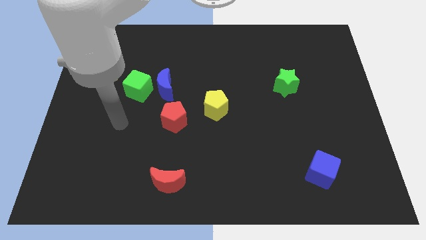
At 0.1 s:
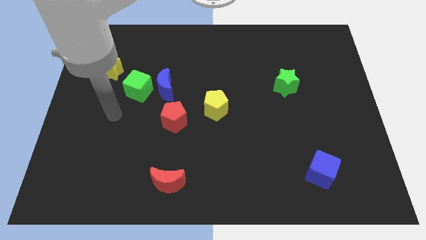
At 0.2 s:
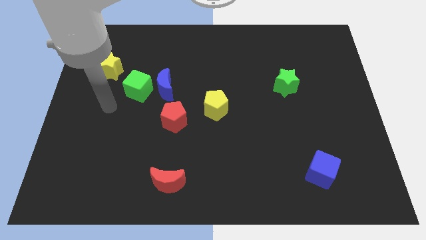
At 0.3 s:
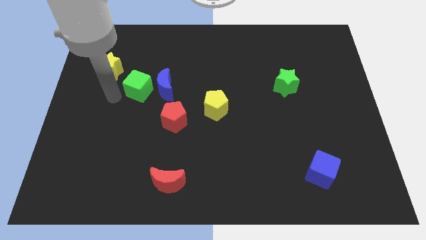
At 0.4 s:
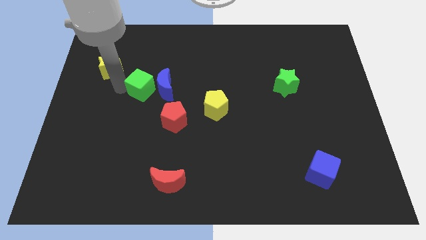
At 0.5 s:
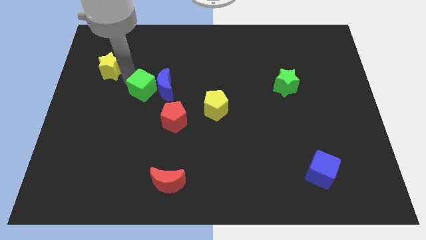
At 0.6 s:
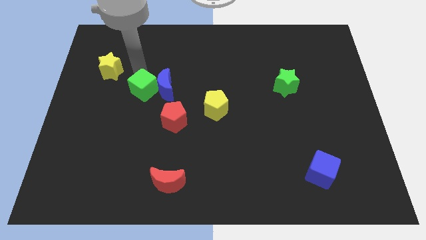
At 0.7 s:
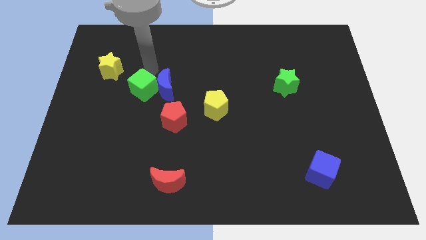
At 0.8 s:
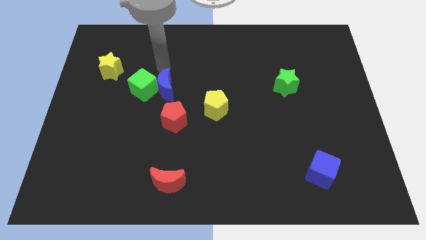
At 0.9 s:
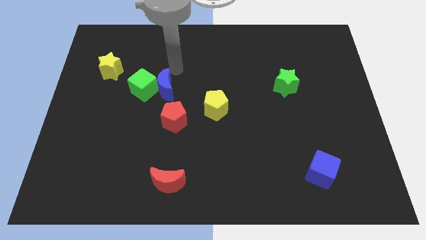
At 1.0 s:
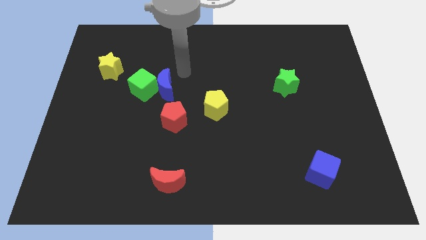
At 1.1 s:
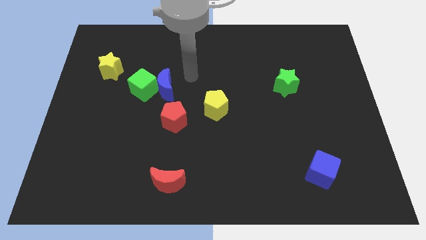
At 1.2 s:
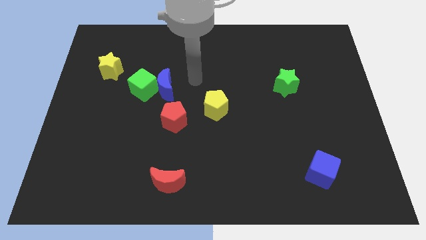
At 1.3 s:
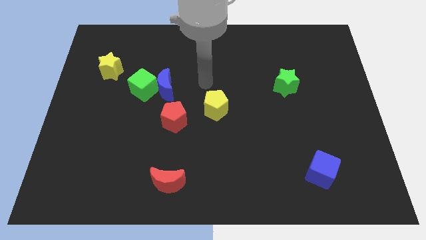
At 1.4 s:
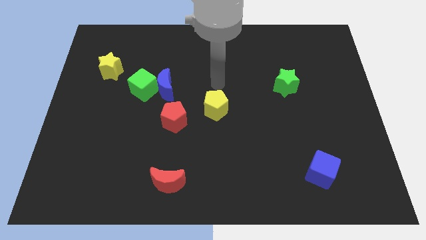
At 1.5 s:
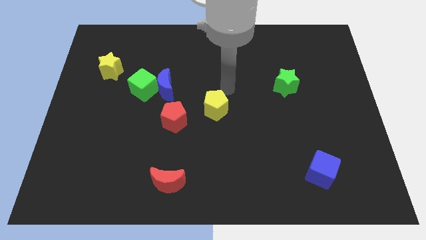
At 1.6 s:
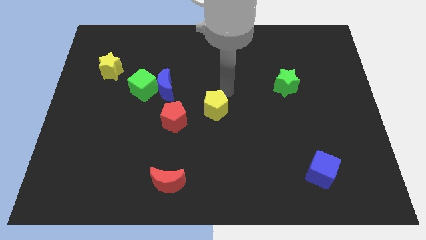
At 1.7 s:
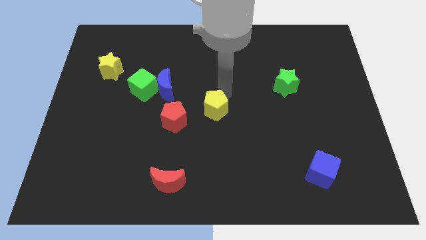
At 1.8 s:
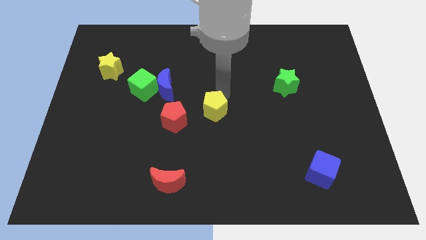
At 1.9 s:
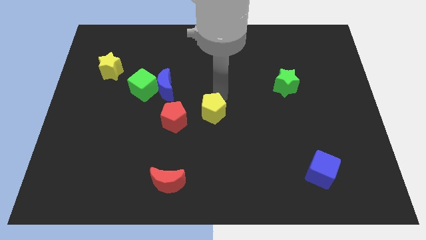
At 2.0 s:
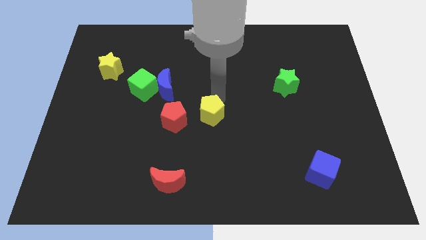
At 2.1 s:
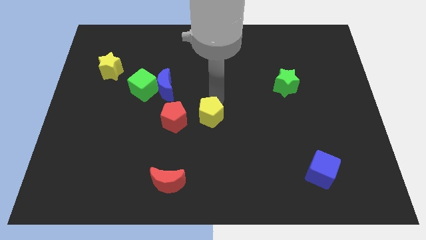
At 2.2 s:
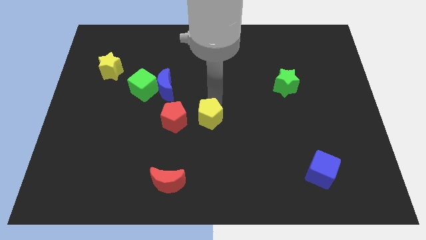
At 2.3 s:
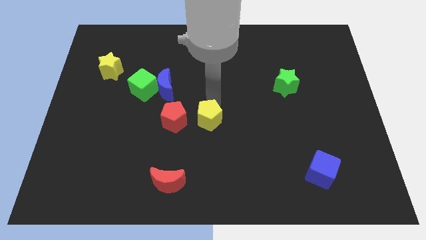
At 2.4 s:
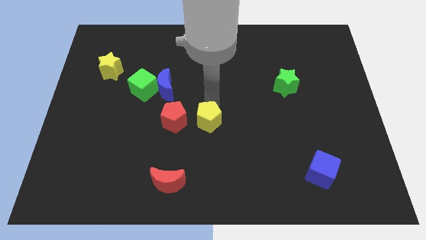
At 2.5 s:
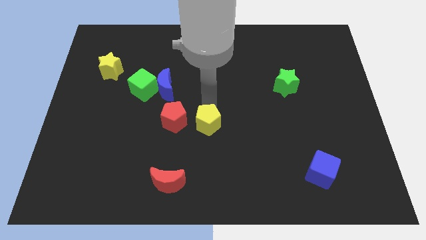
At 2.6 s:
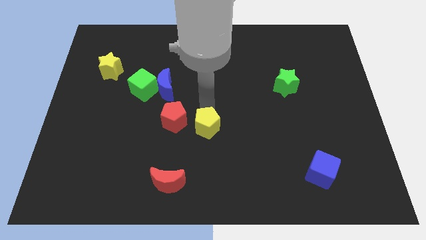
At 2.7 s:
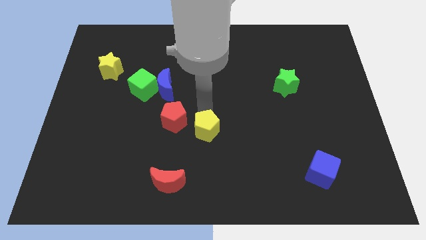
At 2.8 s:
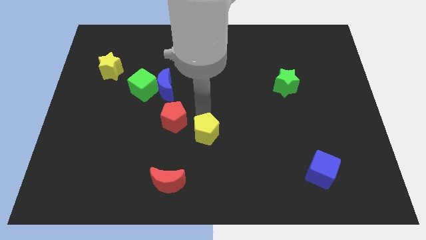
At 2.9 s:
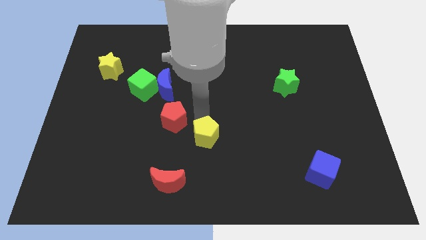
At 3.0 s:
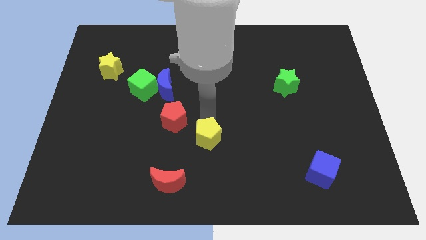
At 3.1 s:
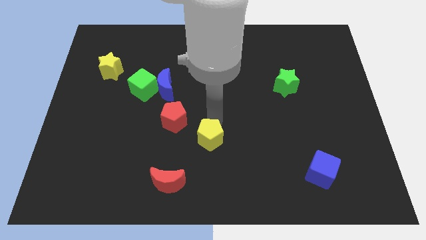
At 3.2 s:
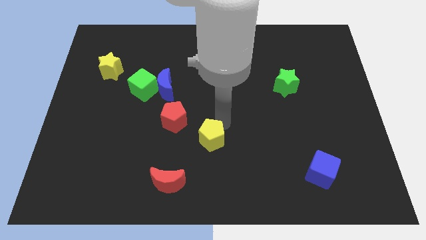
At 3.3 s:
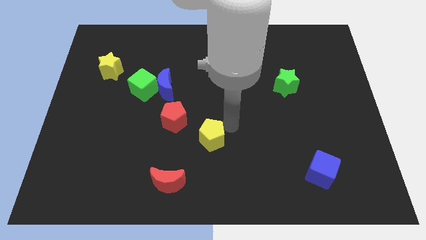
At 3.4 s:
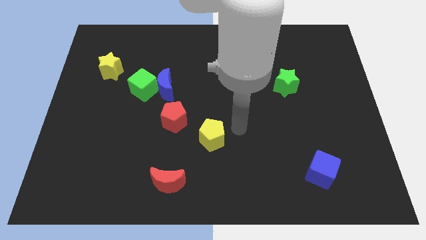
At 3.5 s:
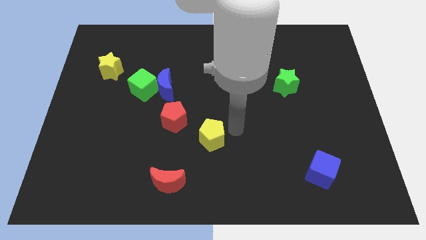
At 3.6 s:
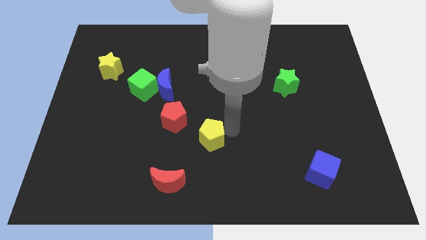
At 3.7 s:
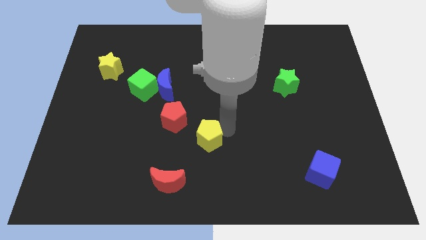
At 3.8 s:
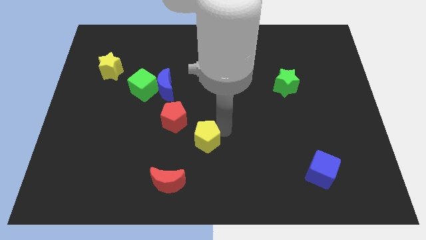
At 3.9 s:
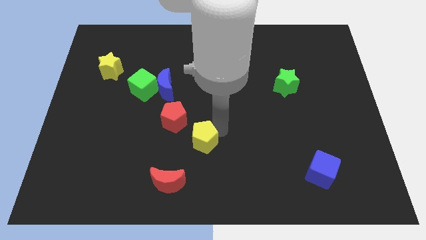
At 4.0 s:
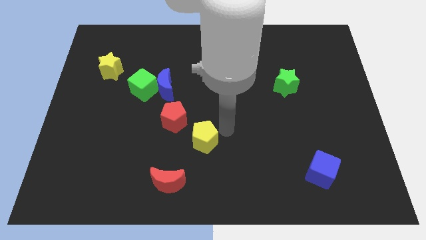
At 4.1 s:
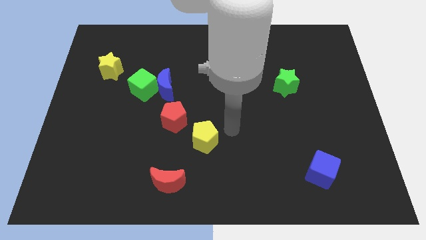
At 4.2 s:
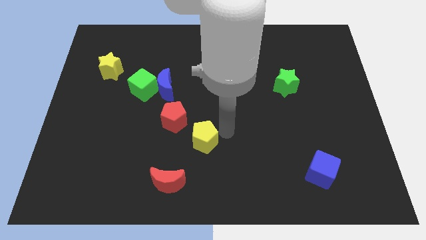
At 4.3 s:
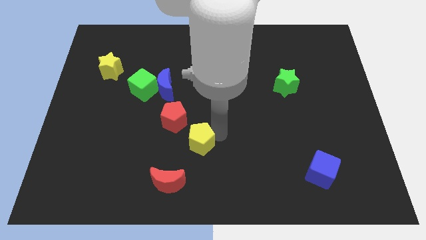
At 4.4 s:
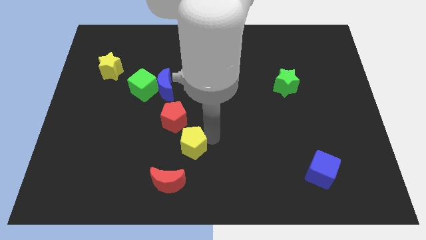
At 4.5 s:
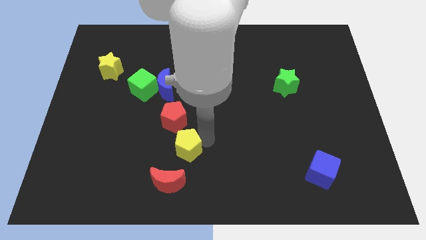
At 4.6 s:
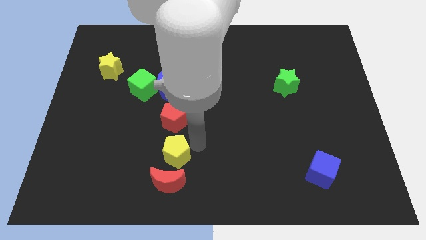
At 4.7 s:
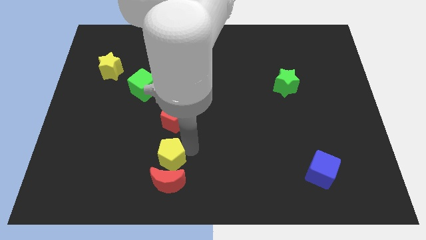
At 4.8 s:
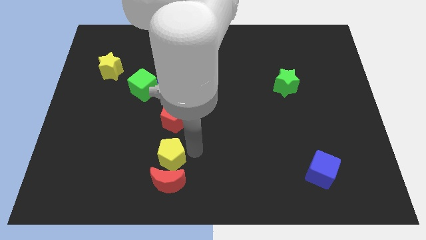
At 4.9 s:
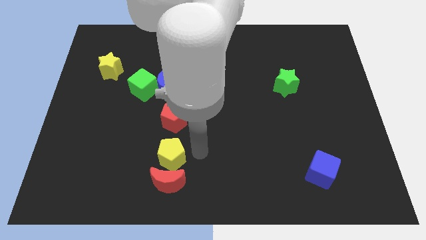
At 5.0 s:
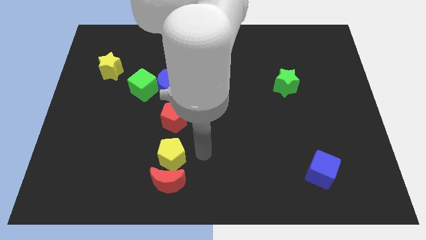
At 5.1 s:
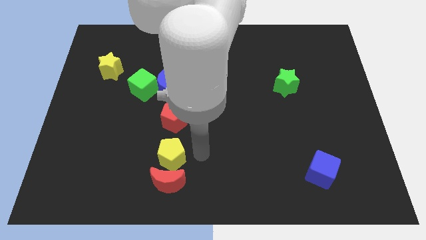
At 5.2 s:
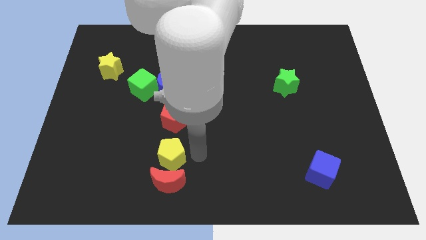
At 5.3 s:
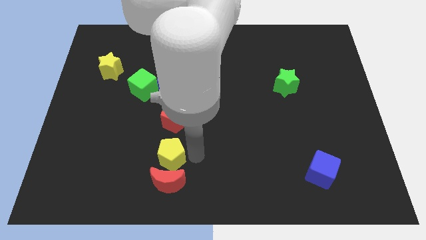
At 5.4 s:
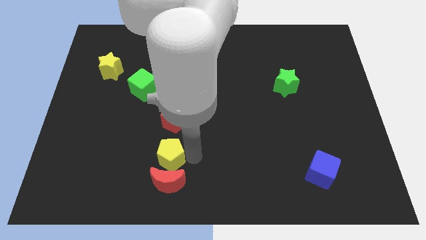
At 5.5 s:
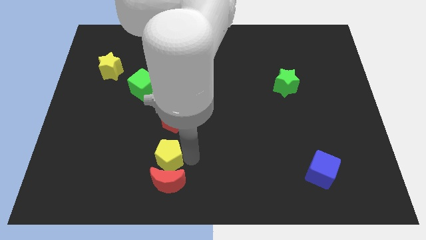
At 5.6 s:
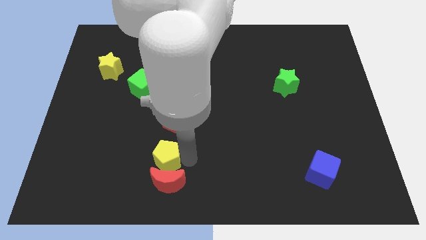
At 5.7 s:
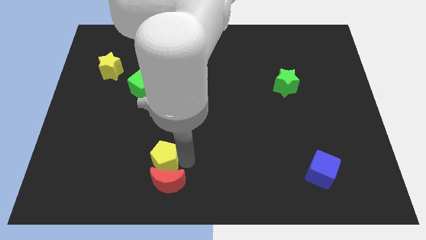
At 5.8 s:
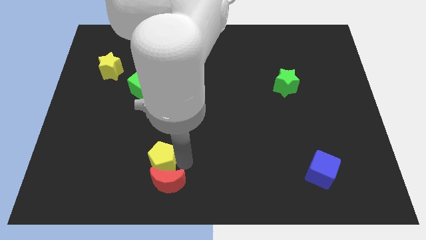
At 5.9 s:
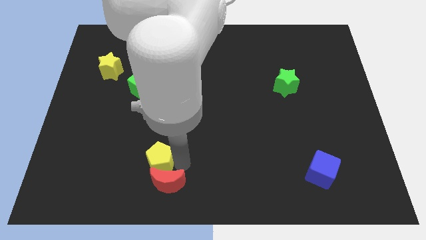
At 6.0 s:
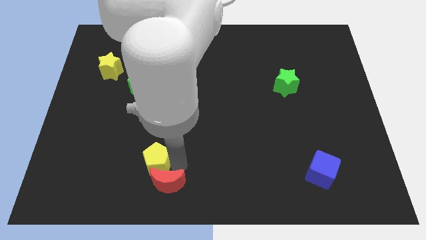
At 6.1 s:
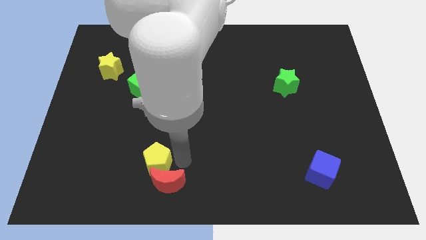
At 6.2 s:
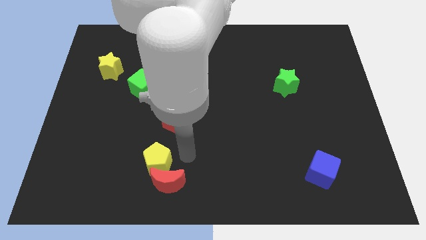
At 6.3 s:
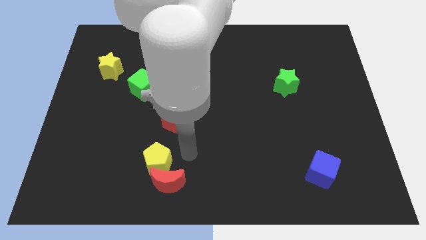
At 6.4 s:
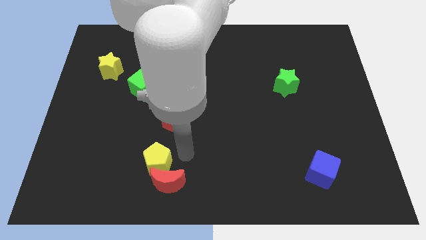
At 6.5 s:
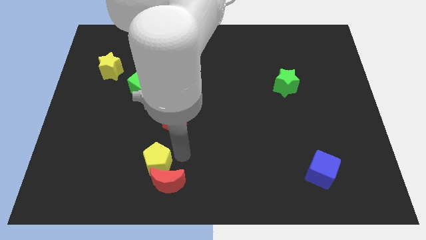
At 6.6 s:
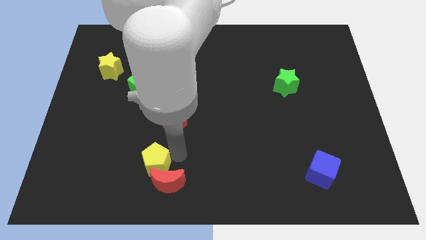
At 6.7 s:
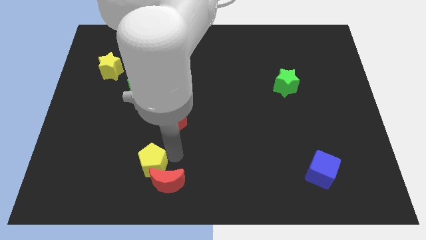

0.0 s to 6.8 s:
put the yellow pentagon to the left of the red moon
